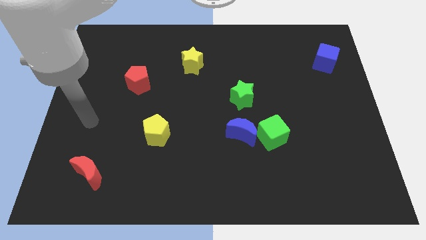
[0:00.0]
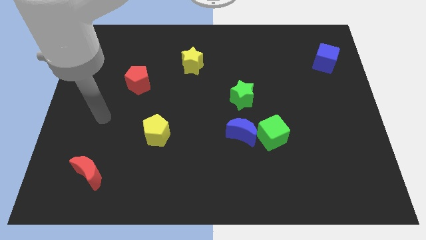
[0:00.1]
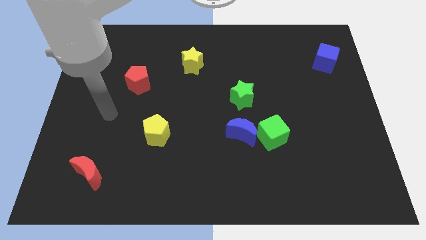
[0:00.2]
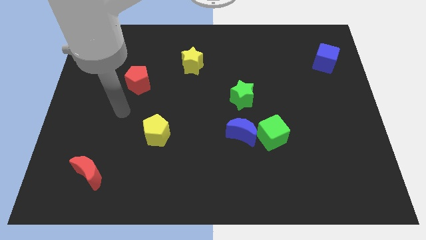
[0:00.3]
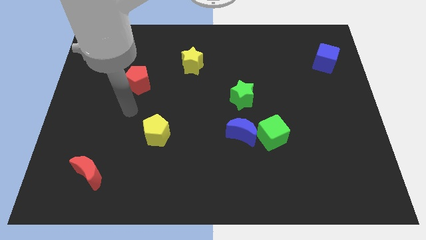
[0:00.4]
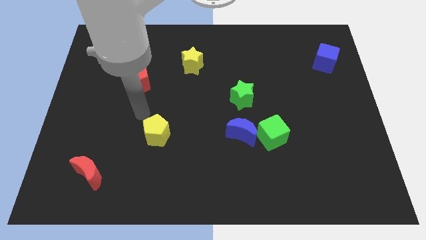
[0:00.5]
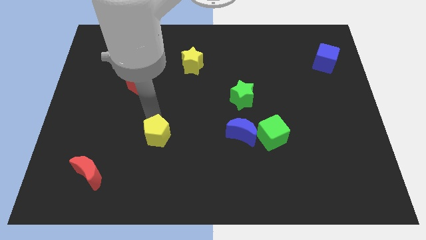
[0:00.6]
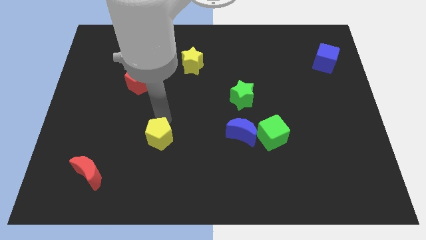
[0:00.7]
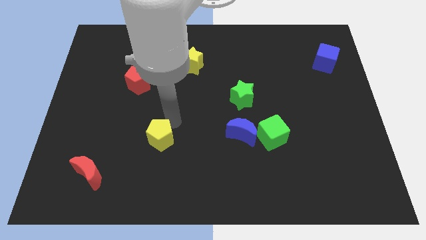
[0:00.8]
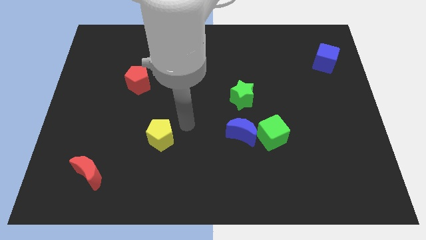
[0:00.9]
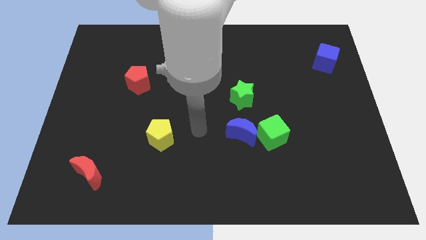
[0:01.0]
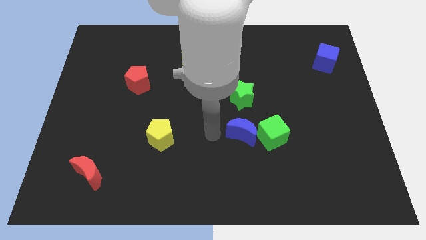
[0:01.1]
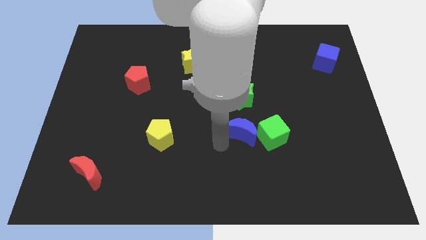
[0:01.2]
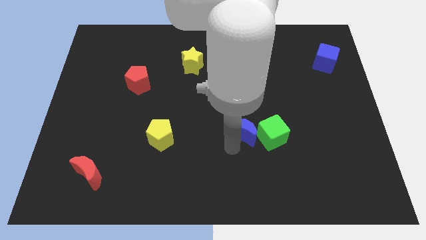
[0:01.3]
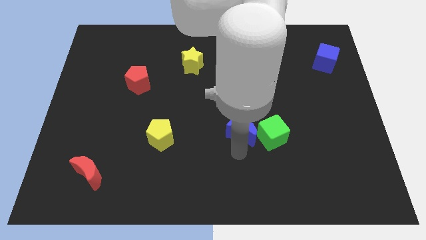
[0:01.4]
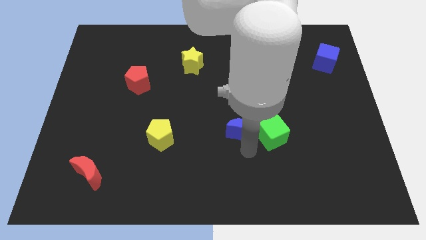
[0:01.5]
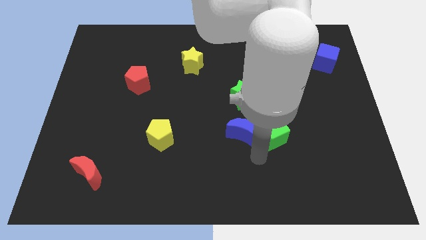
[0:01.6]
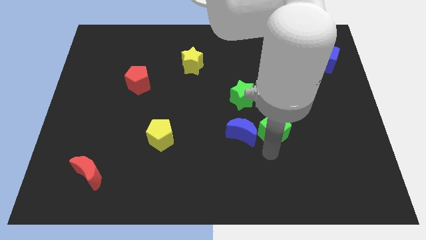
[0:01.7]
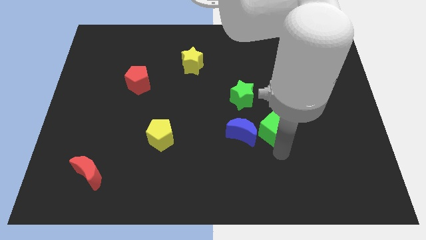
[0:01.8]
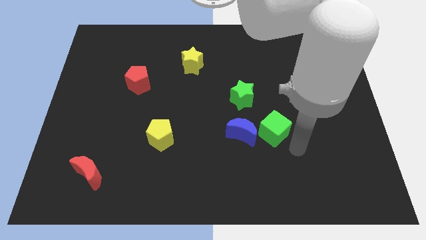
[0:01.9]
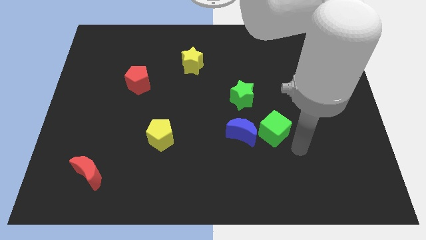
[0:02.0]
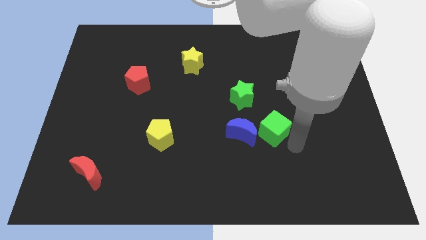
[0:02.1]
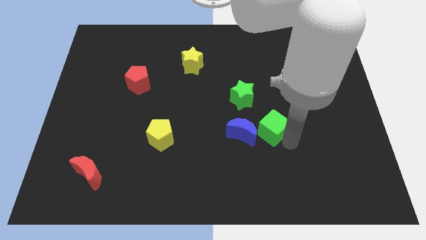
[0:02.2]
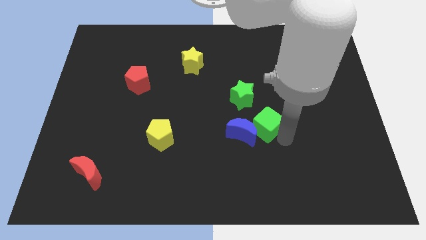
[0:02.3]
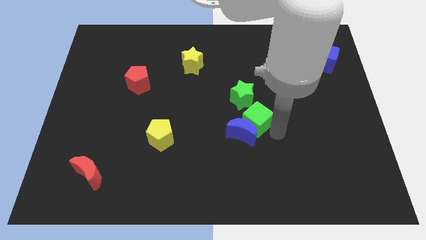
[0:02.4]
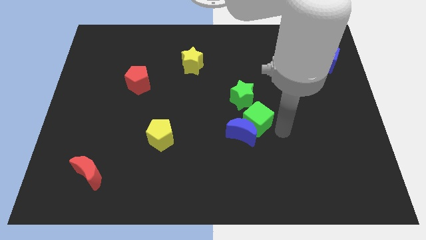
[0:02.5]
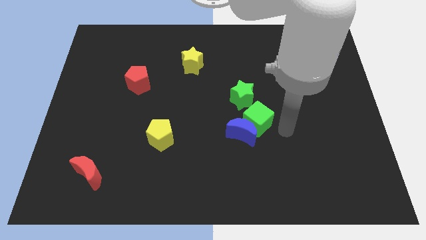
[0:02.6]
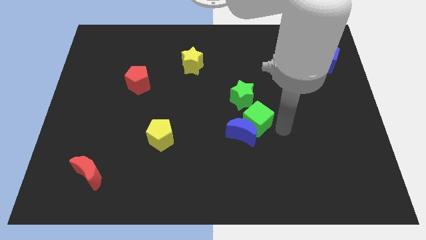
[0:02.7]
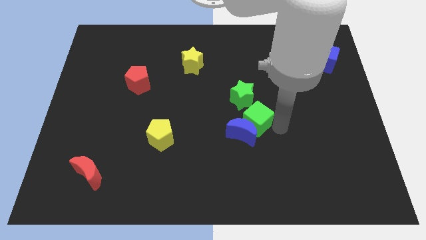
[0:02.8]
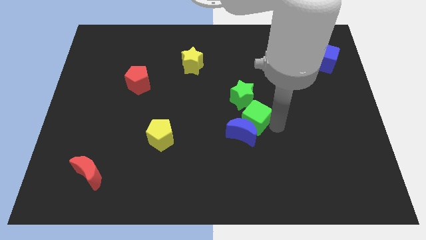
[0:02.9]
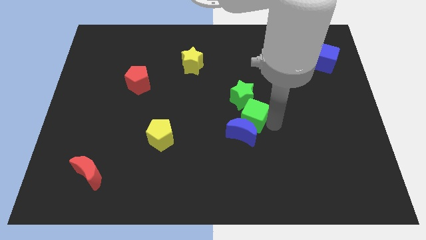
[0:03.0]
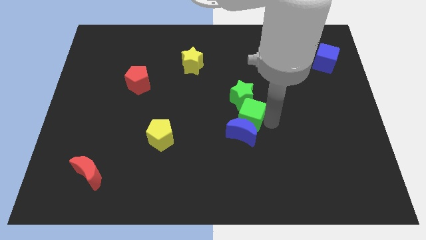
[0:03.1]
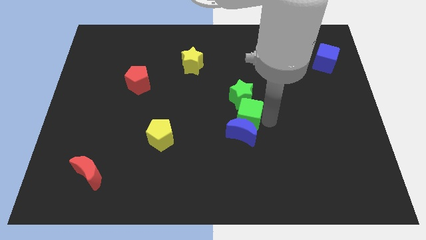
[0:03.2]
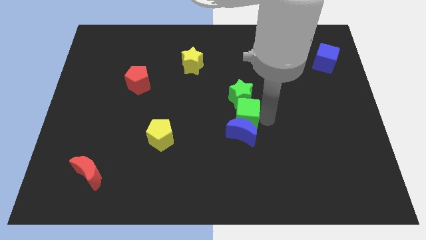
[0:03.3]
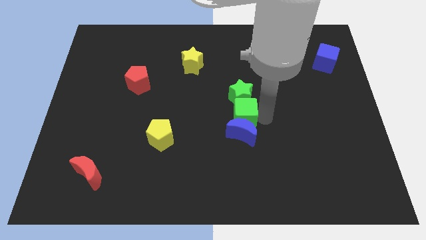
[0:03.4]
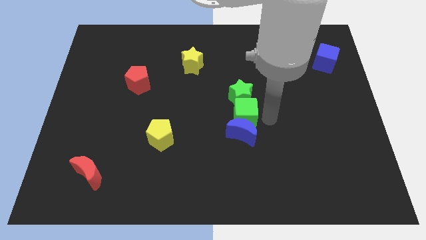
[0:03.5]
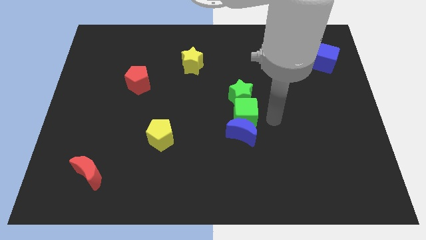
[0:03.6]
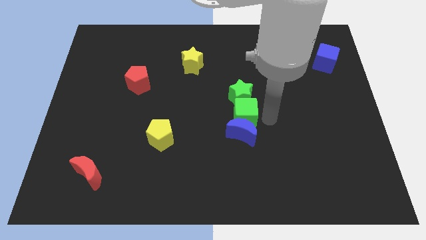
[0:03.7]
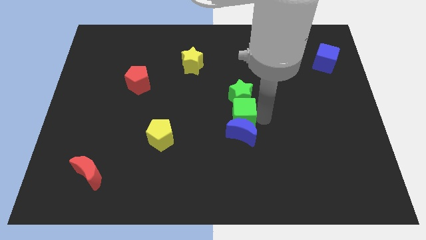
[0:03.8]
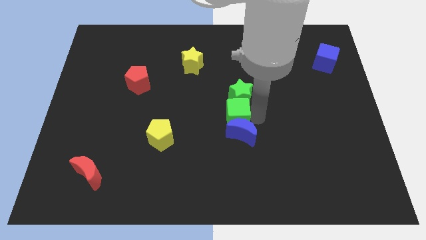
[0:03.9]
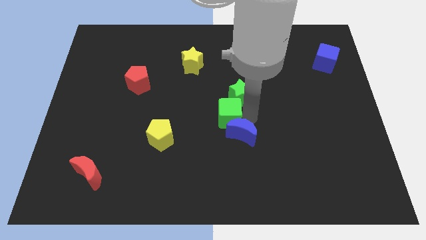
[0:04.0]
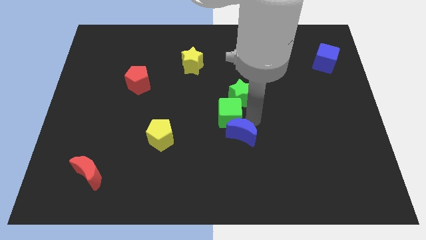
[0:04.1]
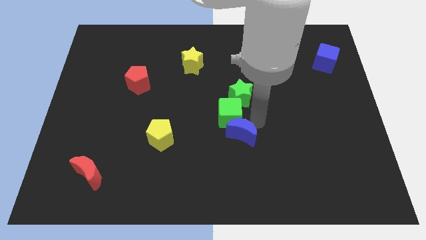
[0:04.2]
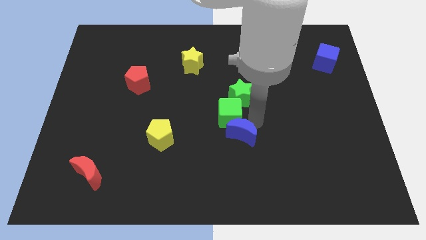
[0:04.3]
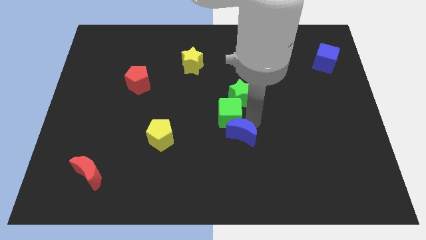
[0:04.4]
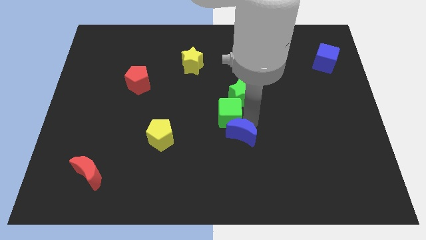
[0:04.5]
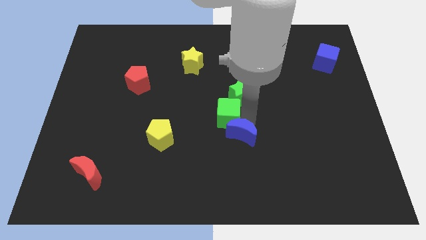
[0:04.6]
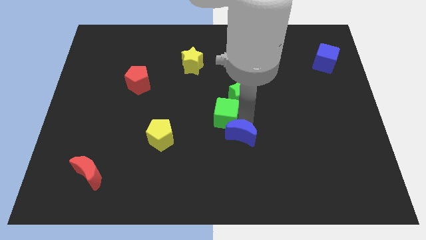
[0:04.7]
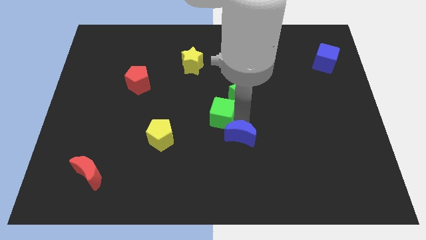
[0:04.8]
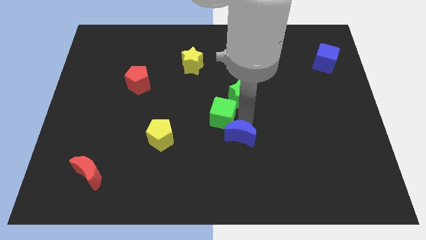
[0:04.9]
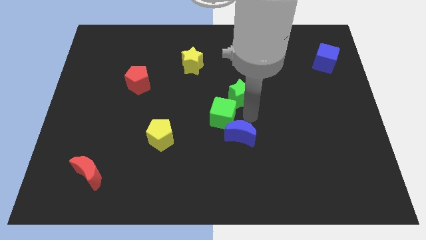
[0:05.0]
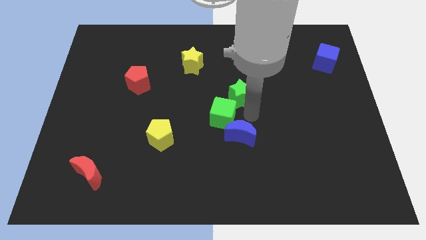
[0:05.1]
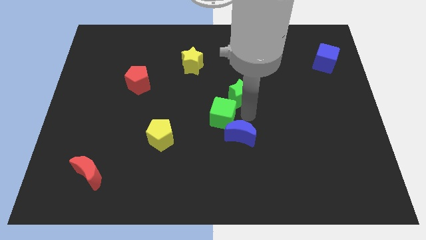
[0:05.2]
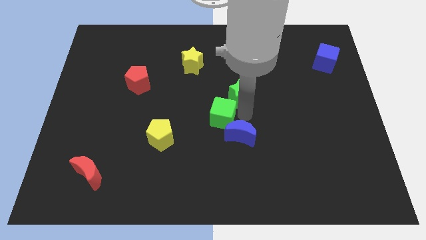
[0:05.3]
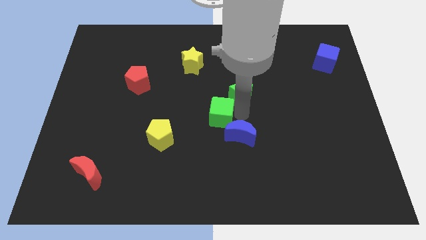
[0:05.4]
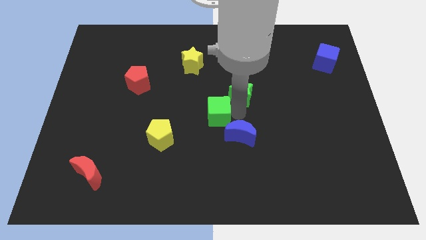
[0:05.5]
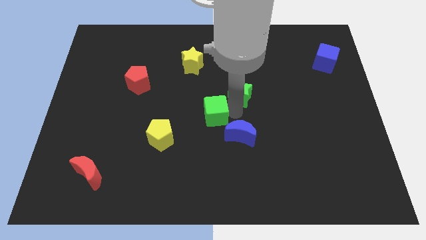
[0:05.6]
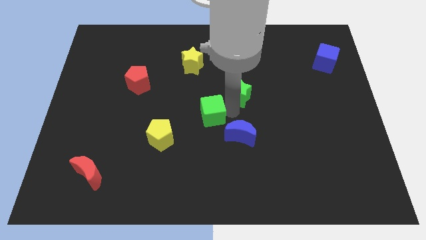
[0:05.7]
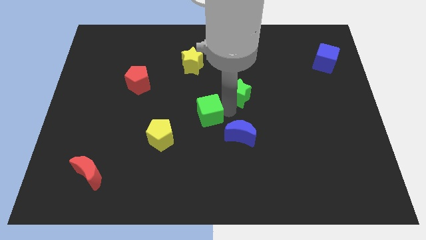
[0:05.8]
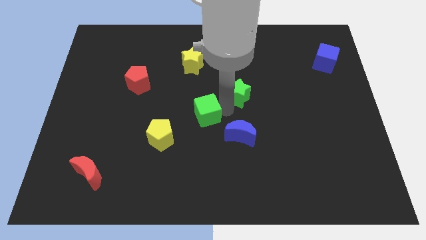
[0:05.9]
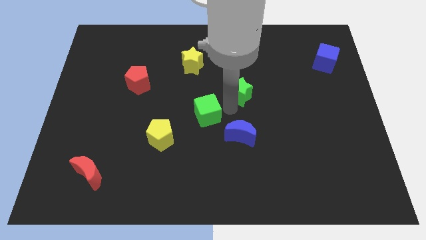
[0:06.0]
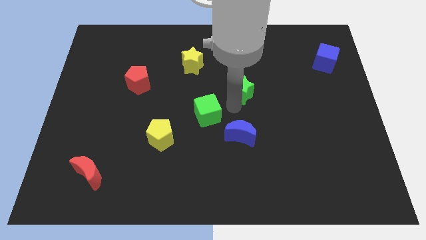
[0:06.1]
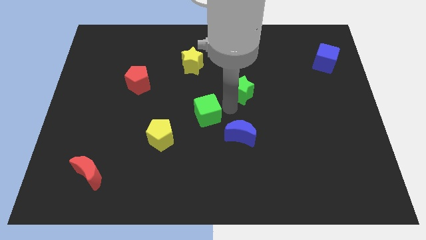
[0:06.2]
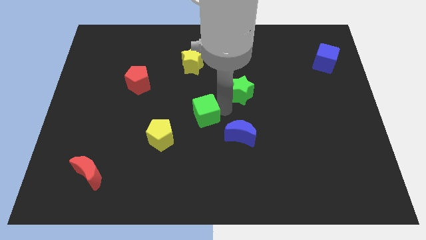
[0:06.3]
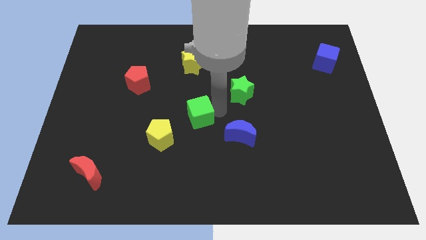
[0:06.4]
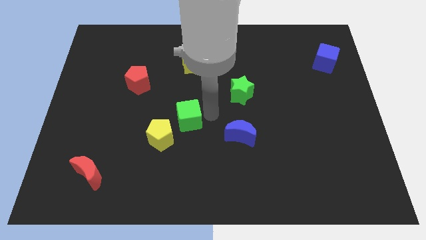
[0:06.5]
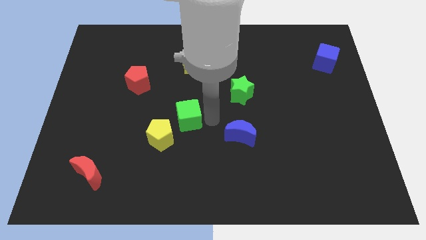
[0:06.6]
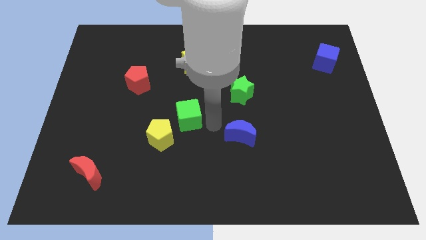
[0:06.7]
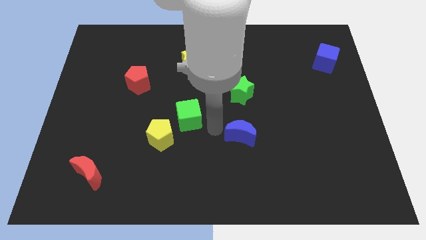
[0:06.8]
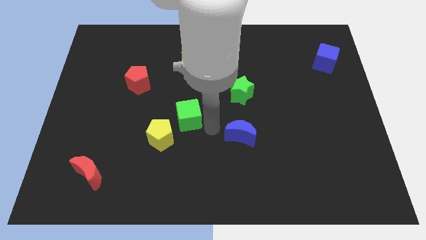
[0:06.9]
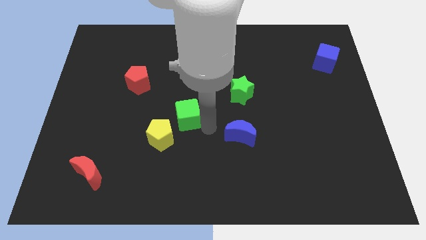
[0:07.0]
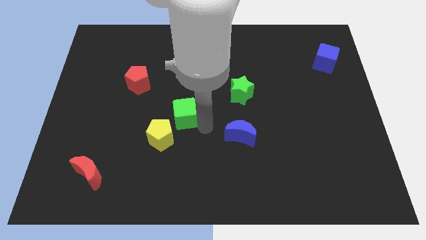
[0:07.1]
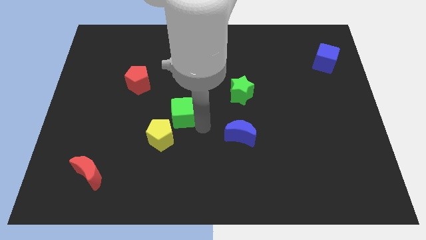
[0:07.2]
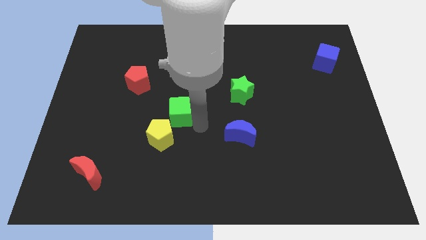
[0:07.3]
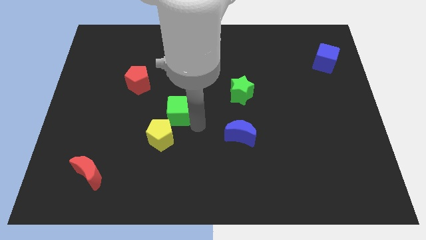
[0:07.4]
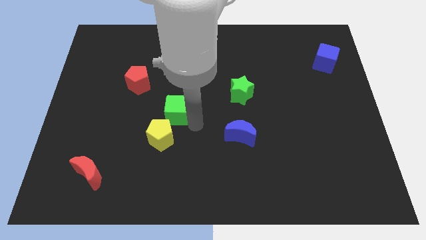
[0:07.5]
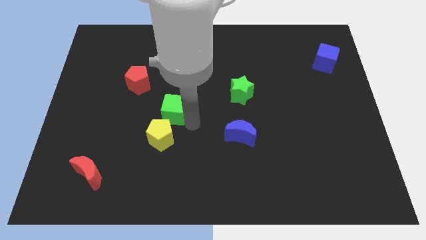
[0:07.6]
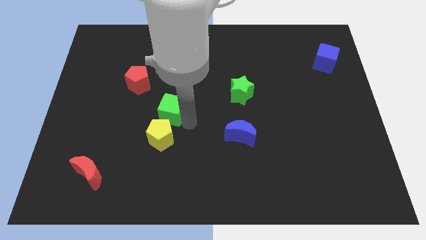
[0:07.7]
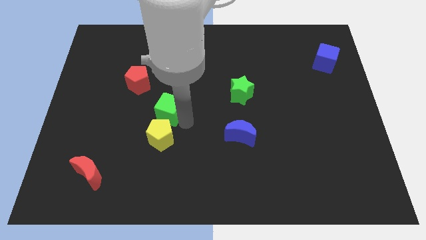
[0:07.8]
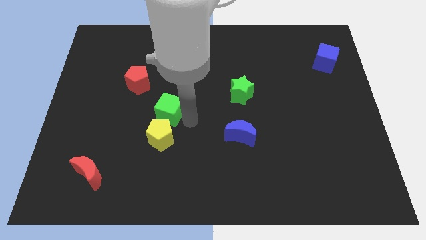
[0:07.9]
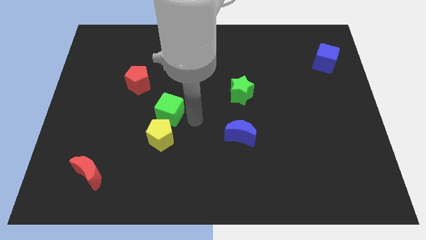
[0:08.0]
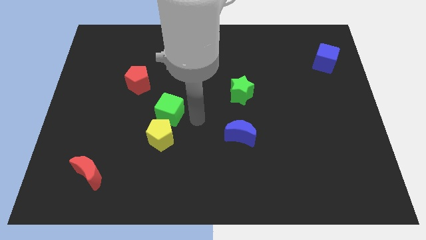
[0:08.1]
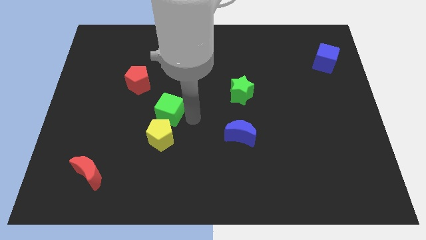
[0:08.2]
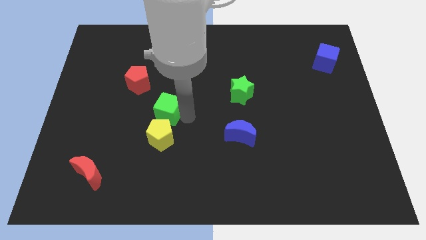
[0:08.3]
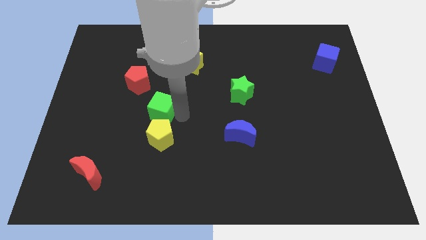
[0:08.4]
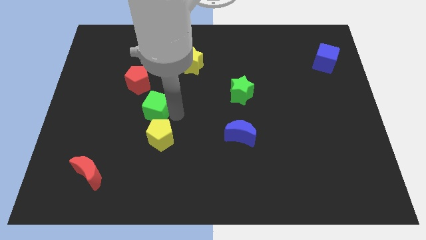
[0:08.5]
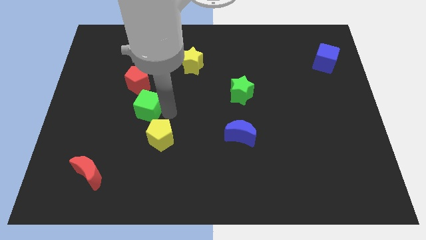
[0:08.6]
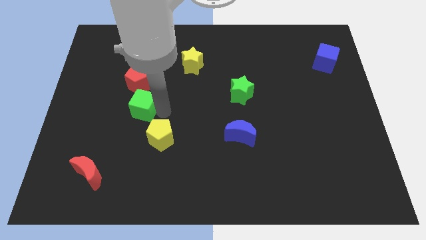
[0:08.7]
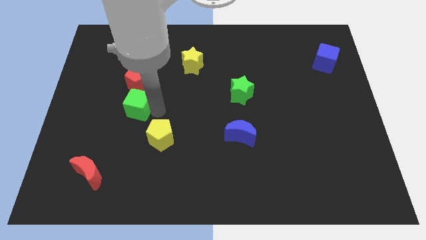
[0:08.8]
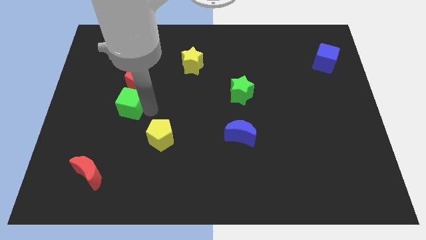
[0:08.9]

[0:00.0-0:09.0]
push the green cube to the bottom left side of the red pentagon
